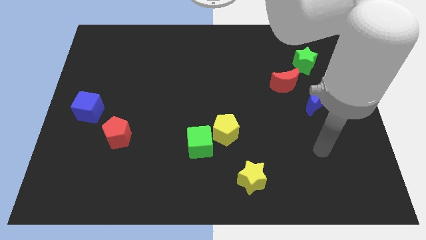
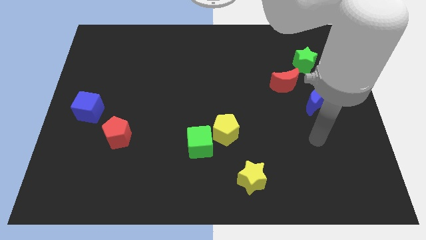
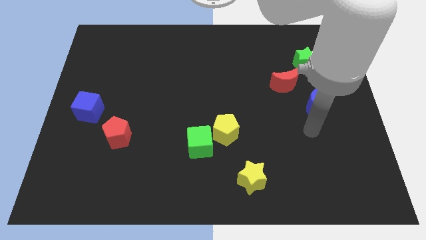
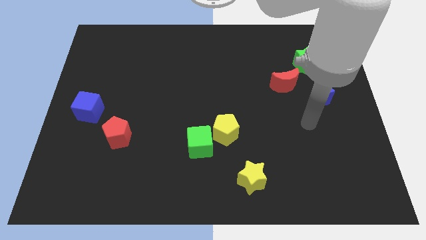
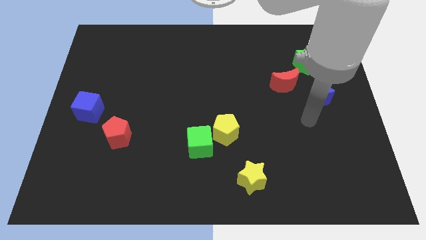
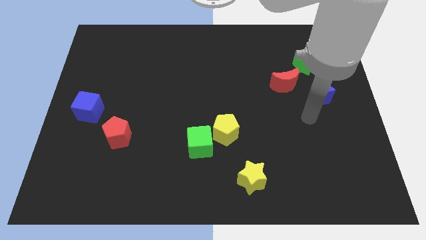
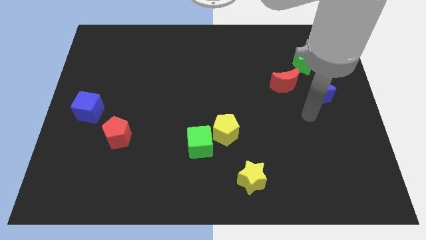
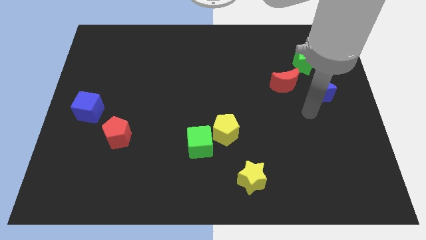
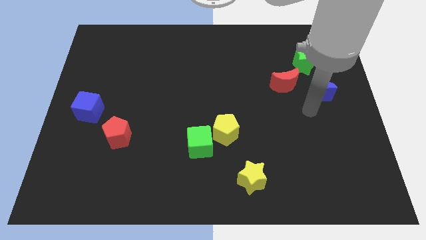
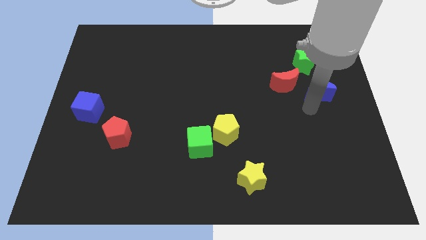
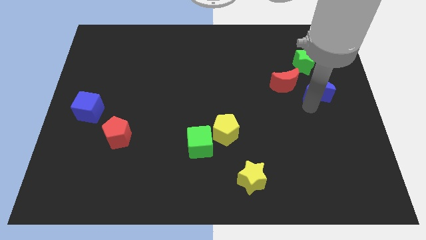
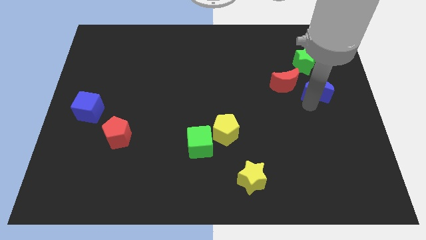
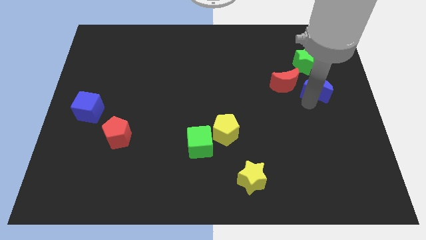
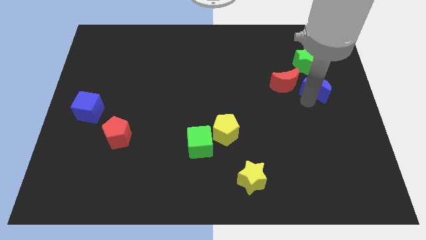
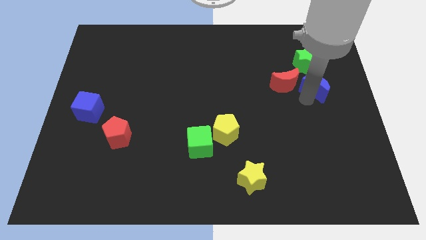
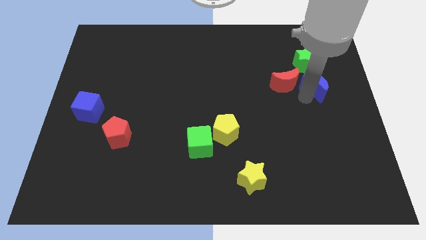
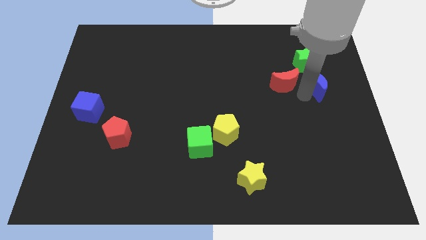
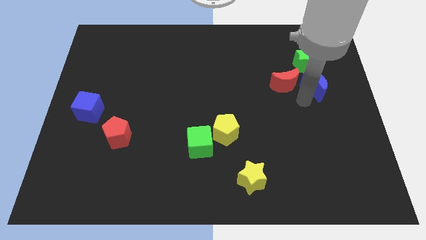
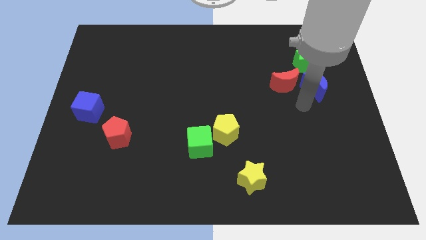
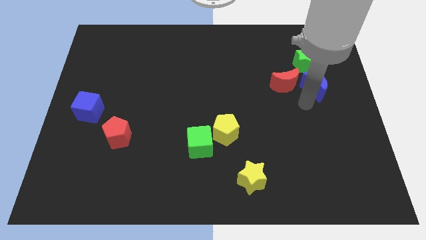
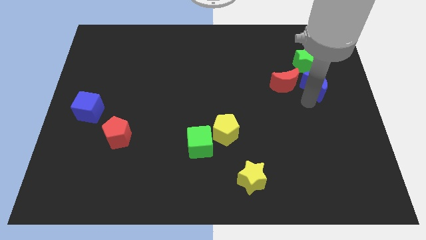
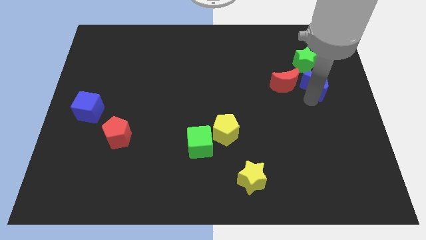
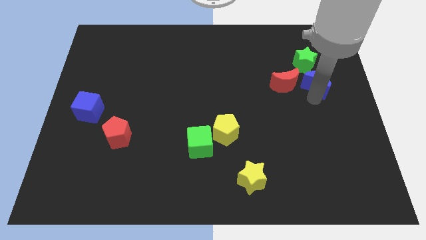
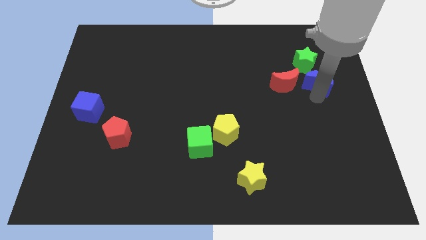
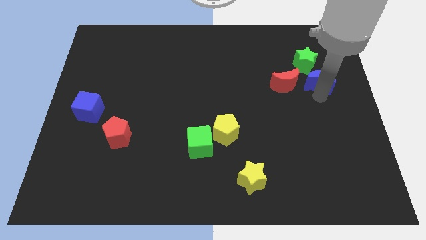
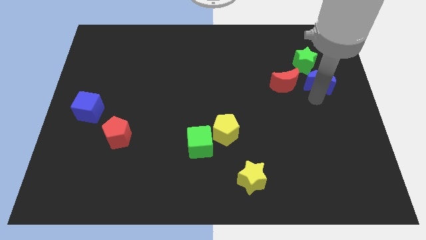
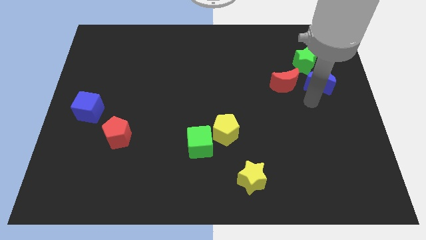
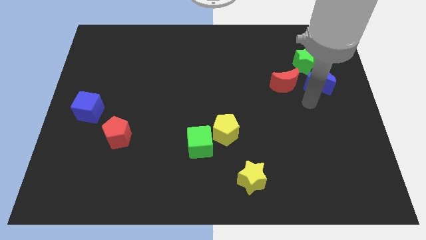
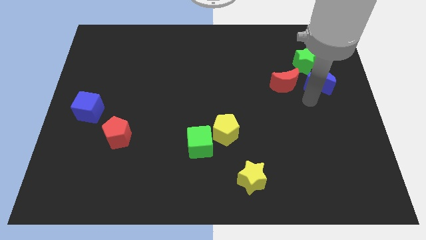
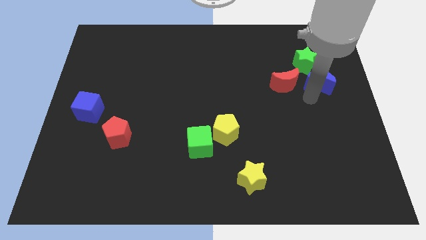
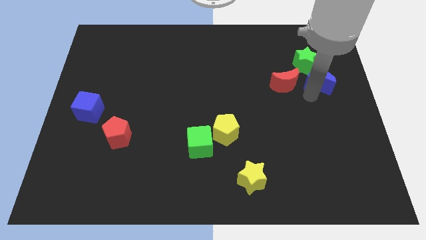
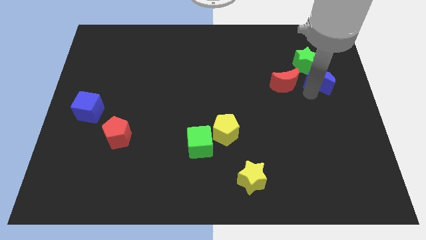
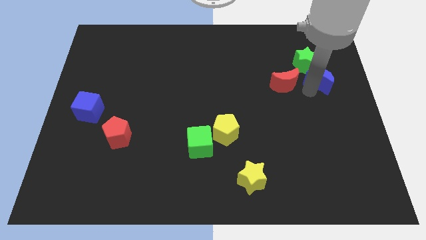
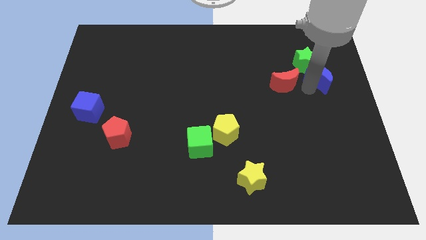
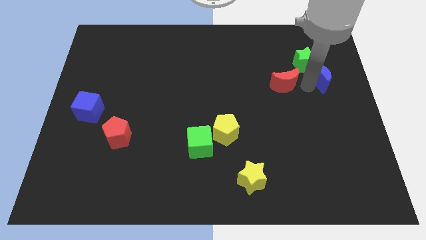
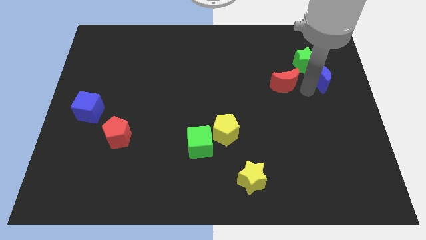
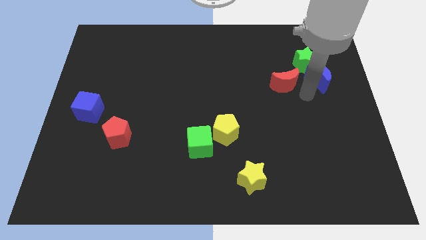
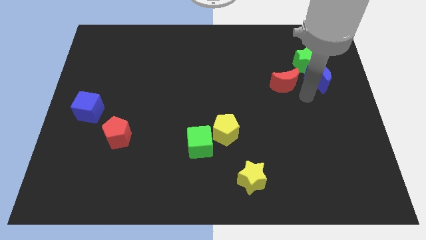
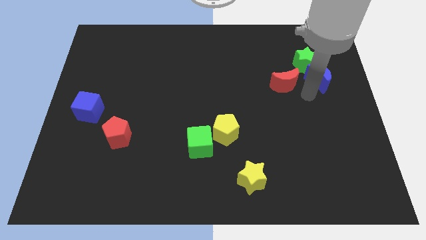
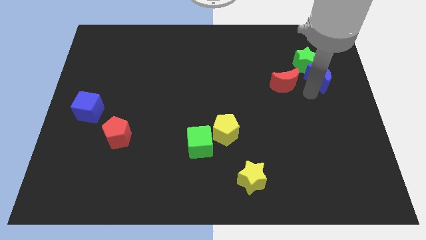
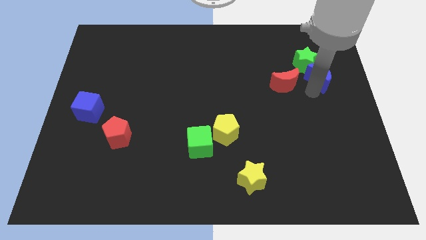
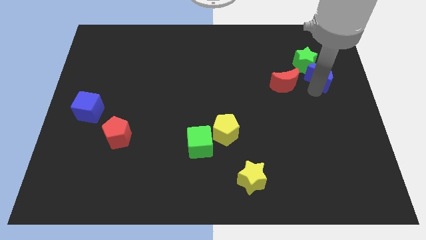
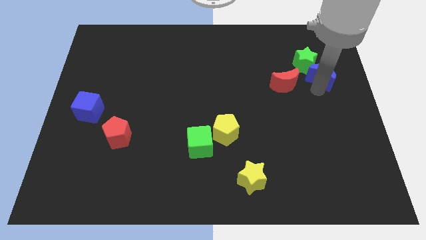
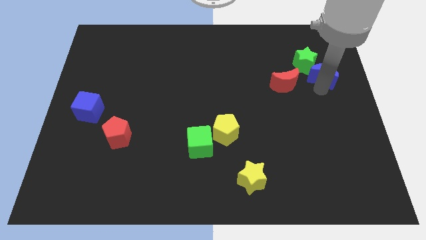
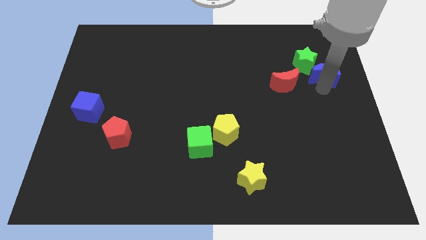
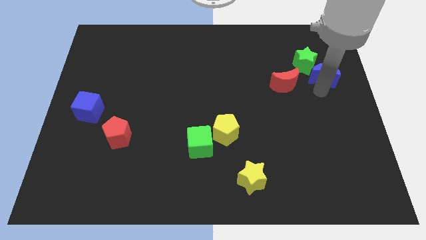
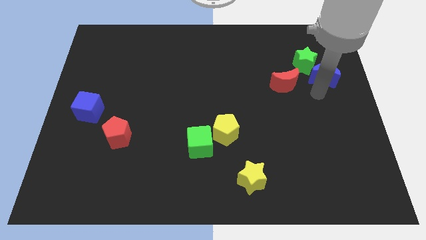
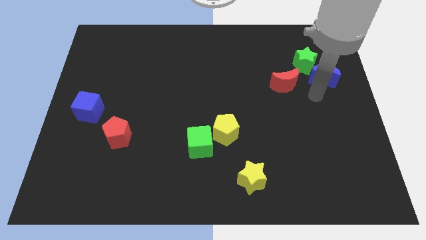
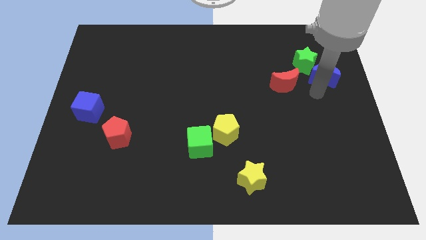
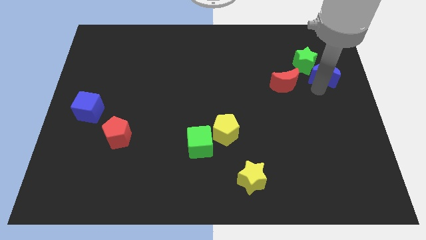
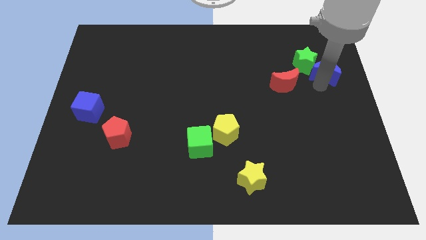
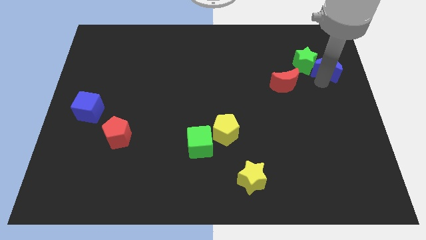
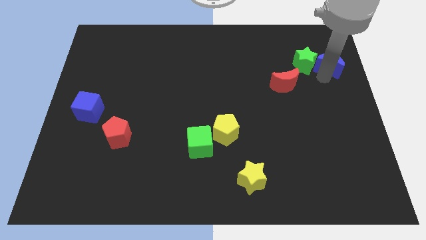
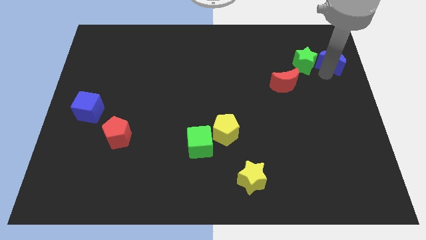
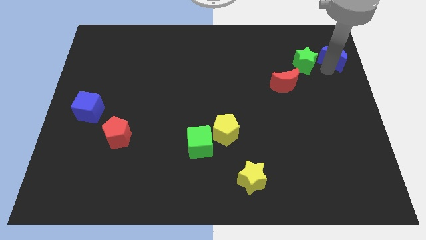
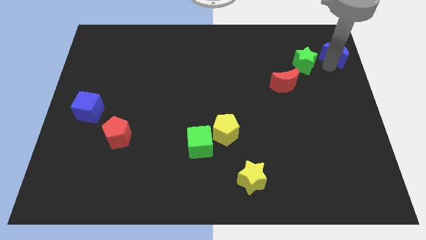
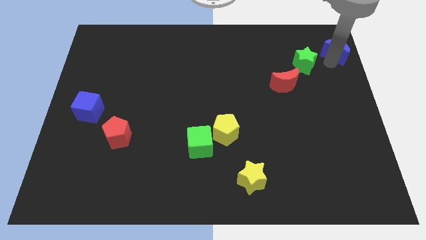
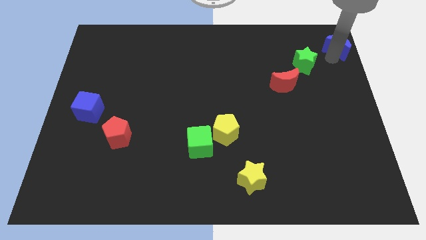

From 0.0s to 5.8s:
slide the blue moon to the top right

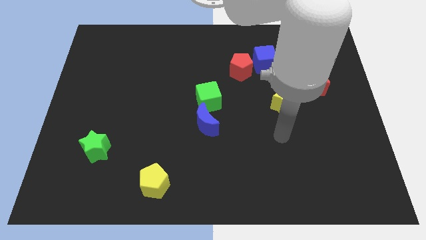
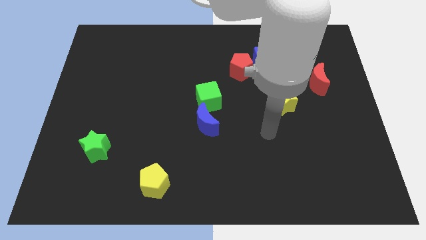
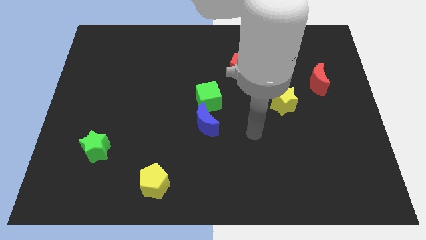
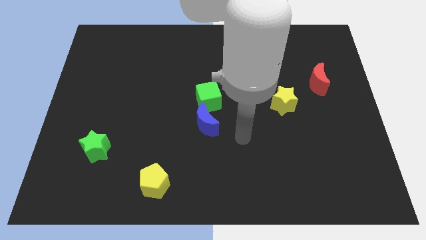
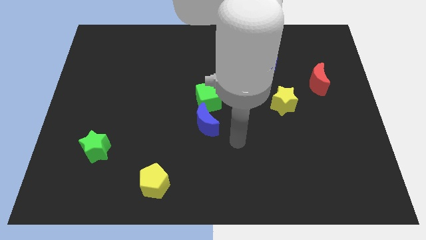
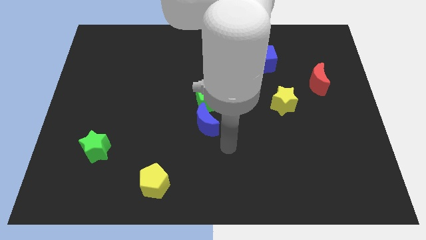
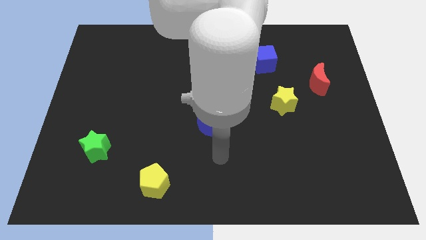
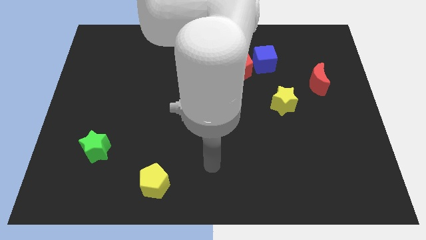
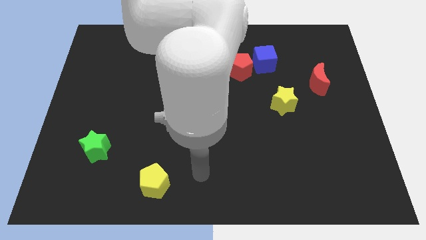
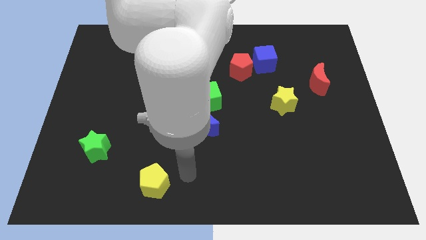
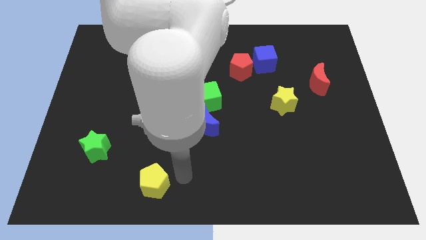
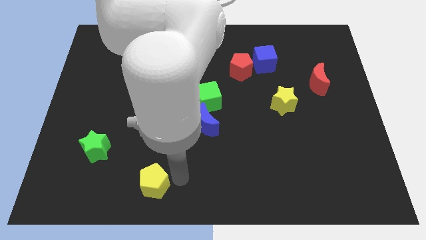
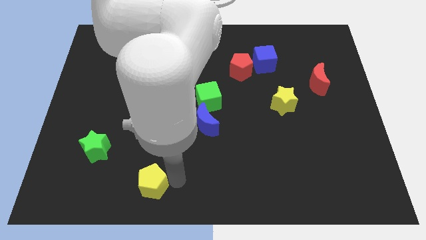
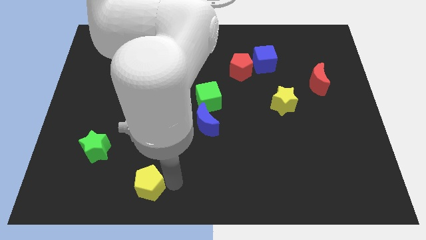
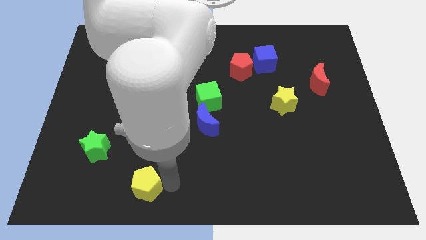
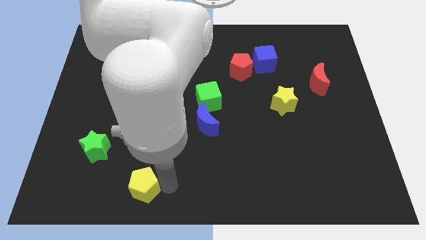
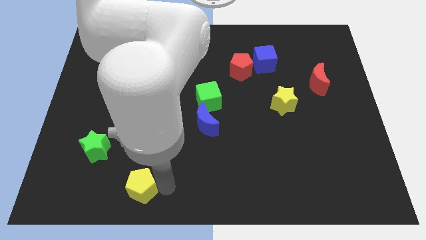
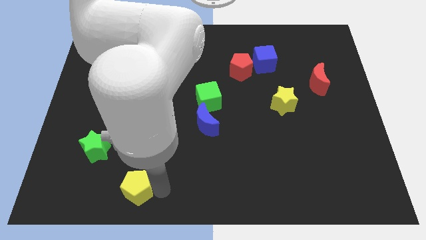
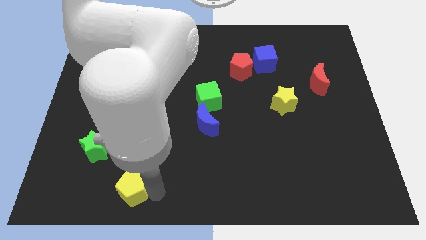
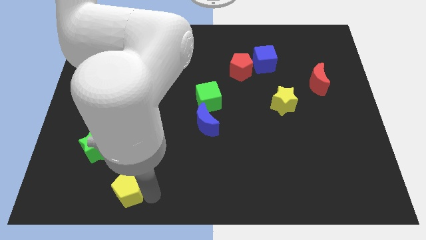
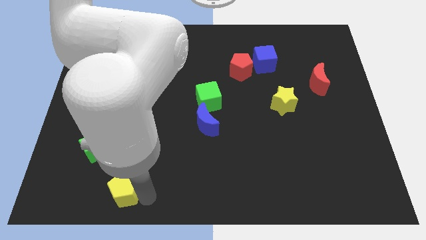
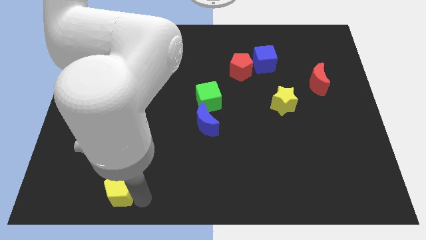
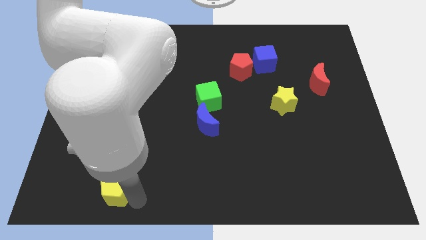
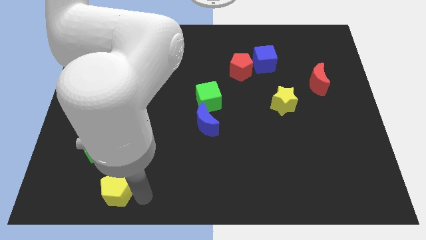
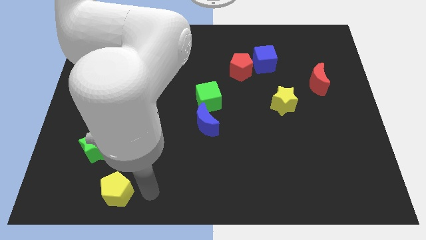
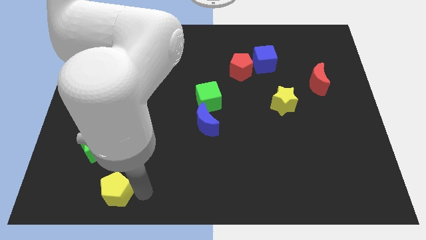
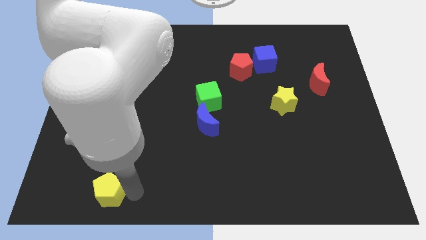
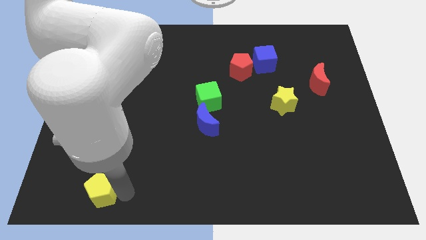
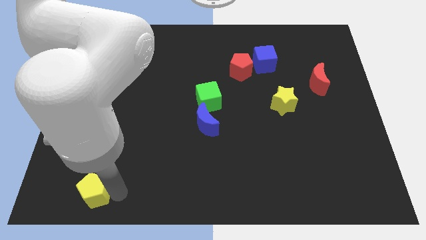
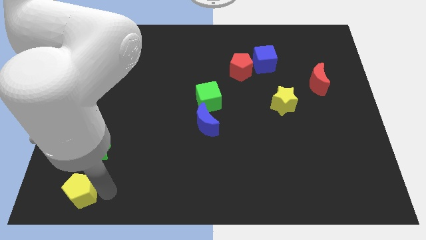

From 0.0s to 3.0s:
slide the yellow pentagon to the bottom left corner
